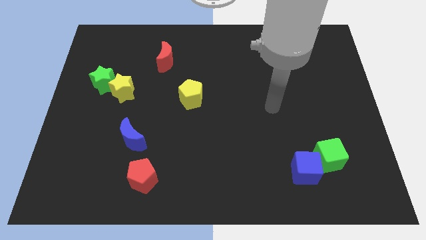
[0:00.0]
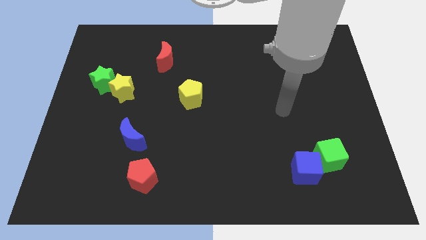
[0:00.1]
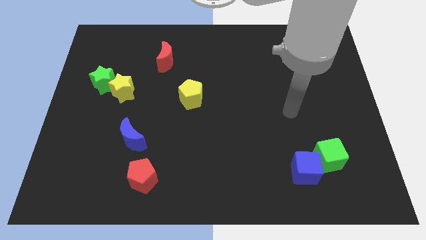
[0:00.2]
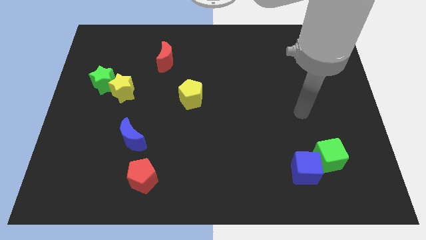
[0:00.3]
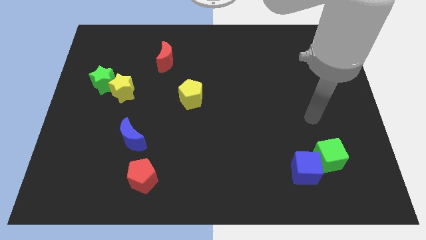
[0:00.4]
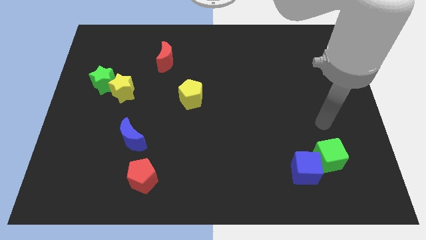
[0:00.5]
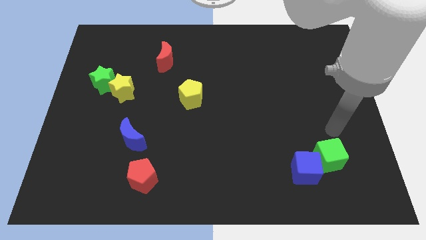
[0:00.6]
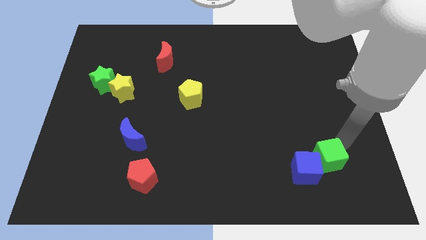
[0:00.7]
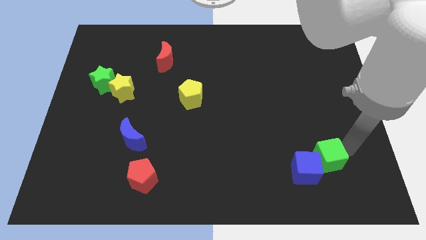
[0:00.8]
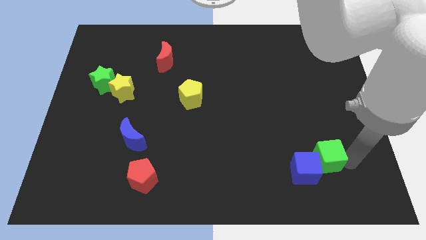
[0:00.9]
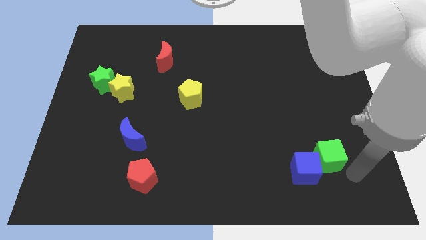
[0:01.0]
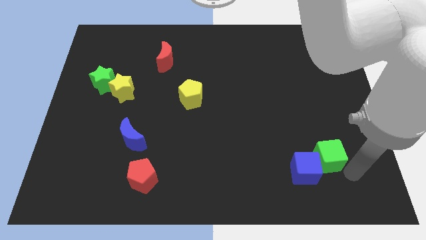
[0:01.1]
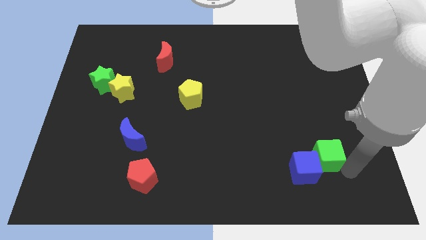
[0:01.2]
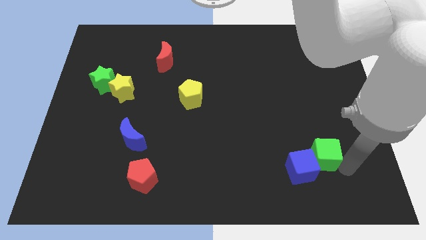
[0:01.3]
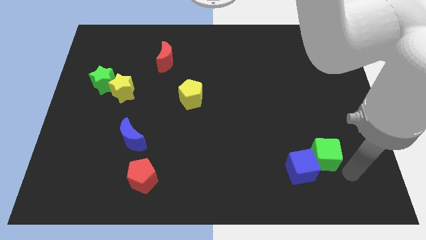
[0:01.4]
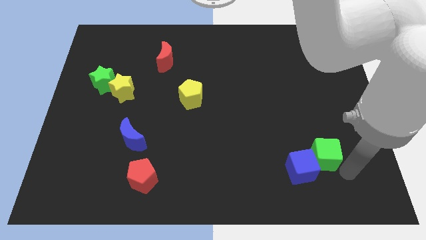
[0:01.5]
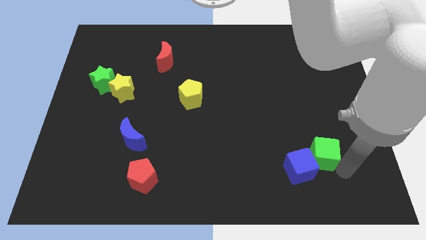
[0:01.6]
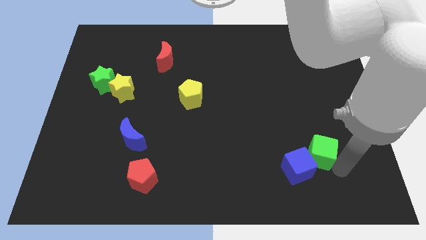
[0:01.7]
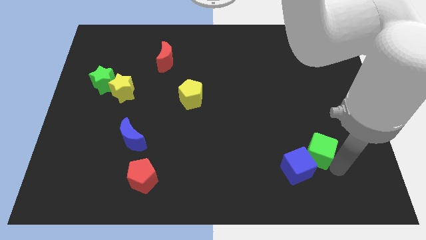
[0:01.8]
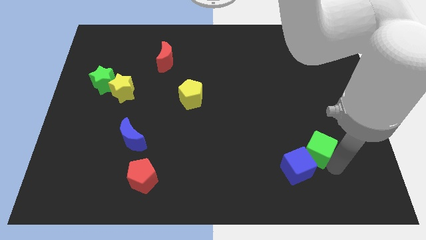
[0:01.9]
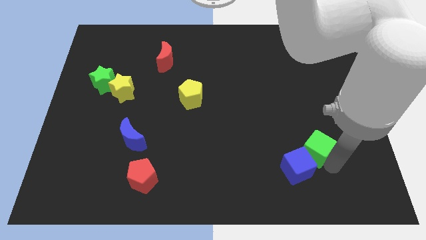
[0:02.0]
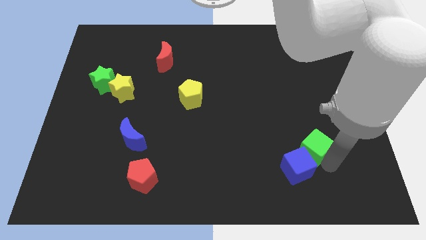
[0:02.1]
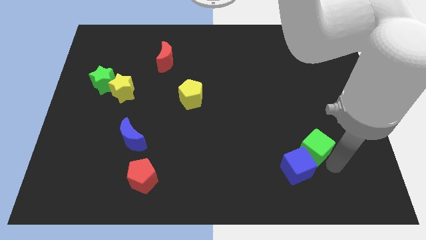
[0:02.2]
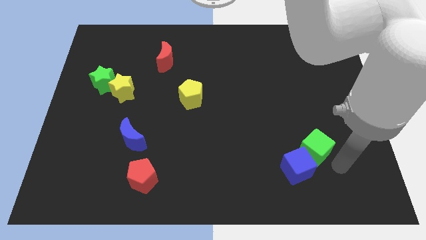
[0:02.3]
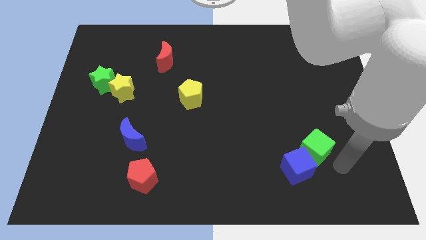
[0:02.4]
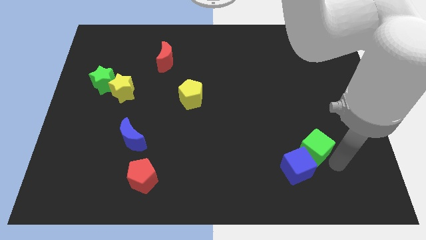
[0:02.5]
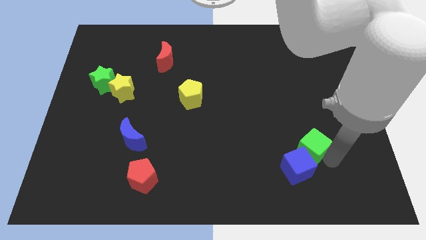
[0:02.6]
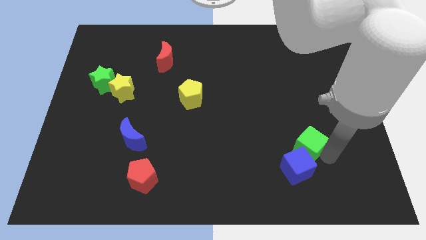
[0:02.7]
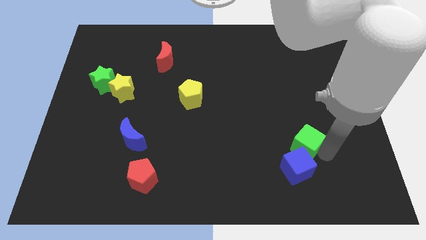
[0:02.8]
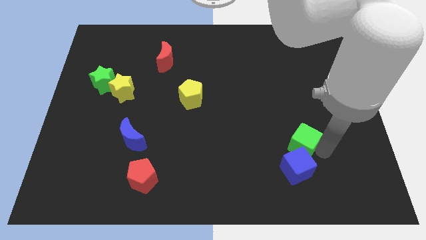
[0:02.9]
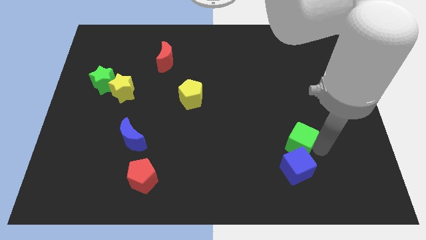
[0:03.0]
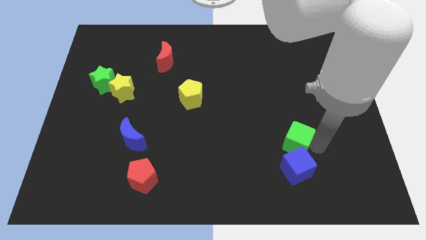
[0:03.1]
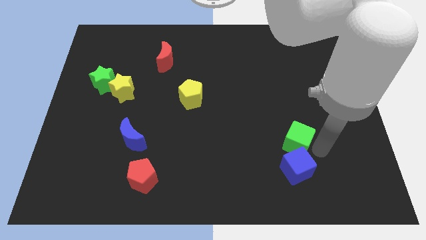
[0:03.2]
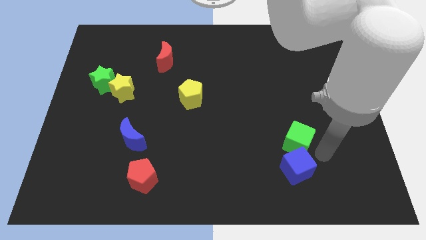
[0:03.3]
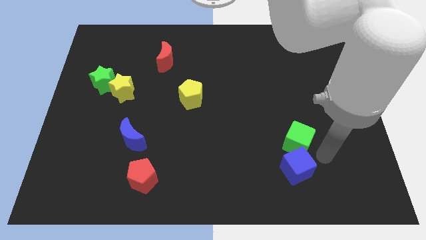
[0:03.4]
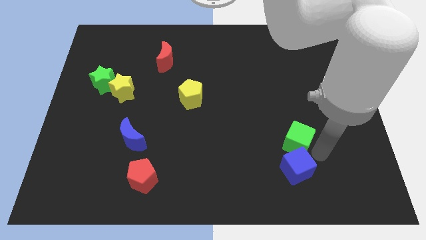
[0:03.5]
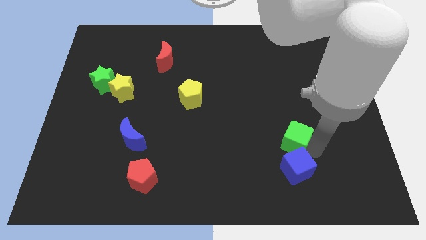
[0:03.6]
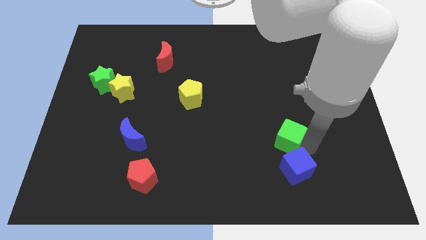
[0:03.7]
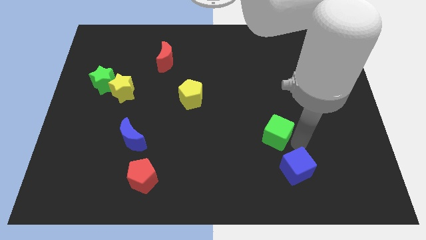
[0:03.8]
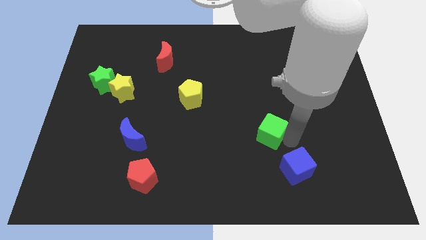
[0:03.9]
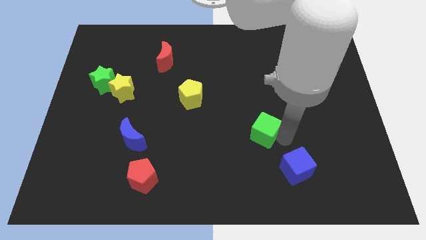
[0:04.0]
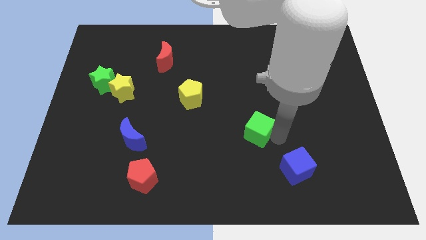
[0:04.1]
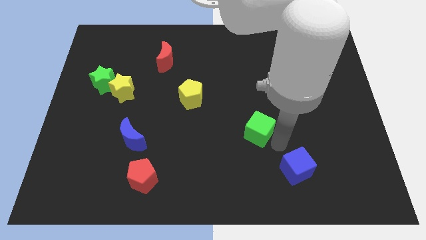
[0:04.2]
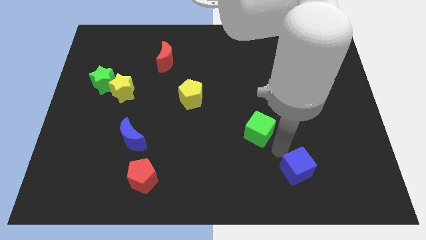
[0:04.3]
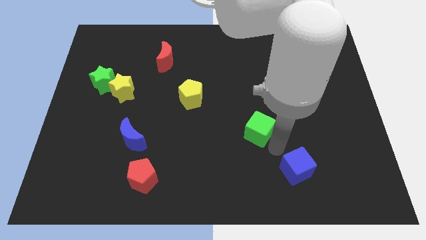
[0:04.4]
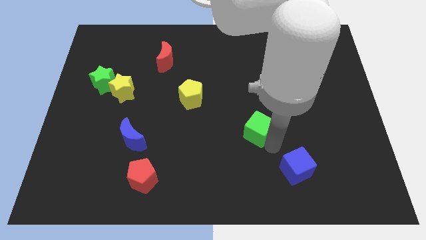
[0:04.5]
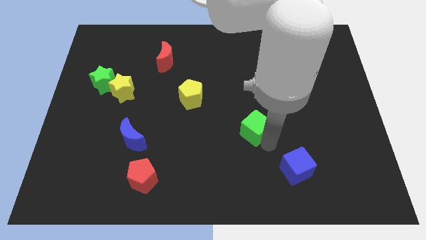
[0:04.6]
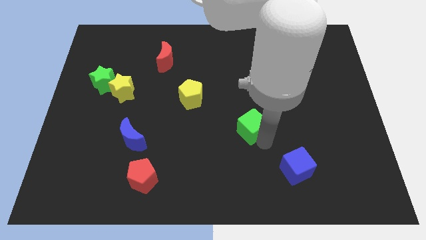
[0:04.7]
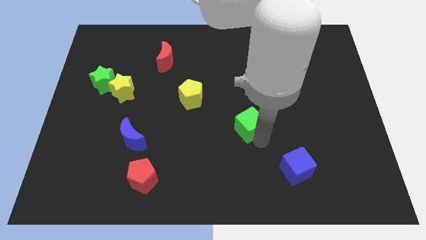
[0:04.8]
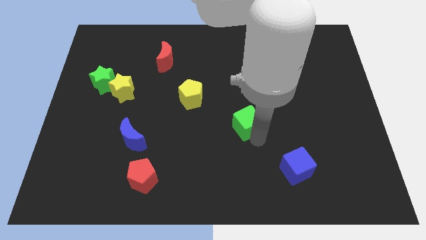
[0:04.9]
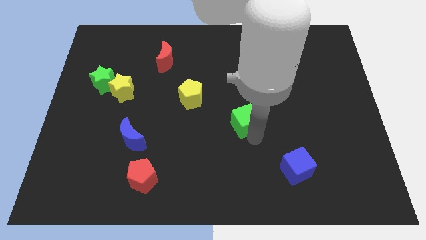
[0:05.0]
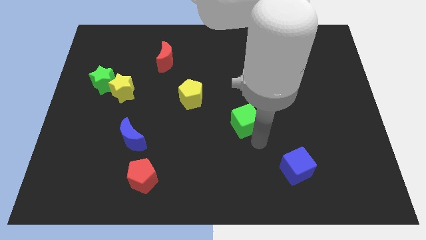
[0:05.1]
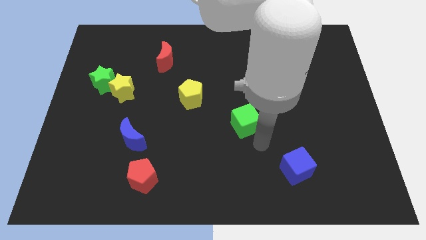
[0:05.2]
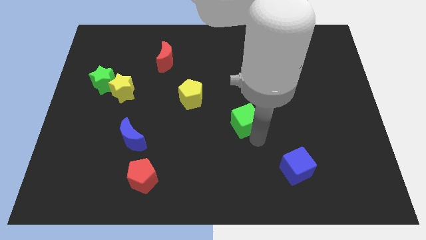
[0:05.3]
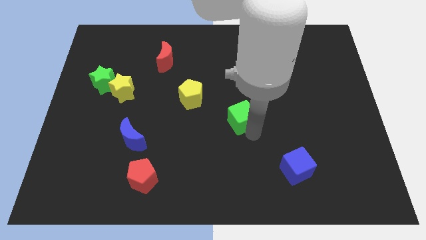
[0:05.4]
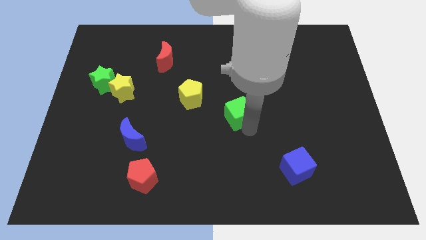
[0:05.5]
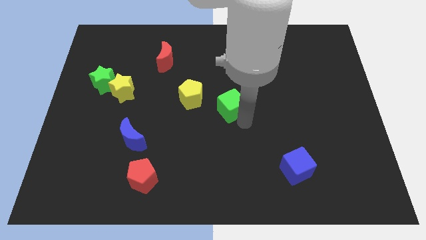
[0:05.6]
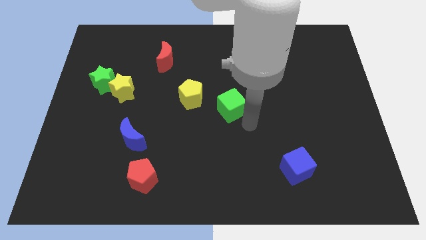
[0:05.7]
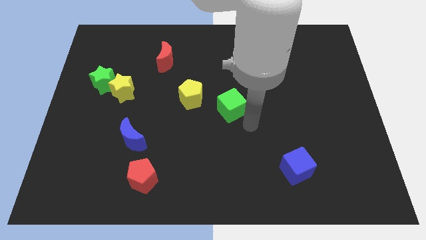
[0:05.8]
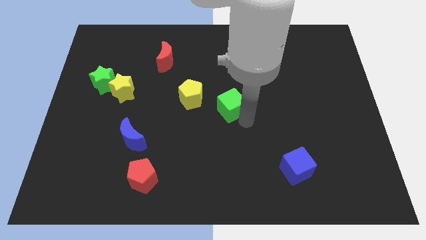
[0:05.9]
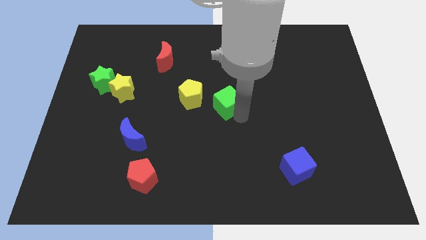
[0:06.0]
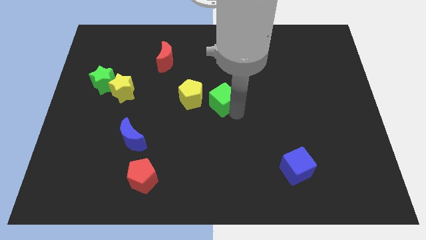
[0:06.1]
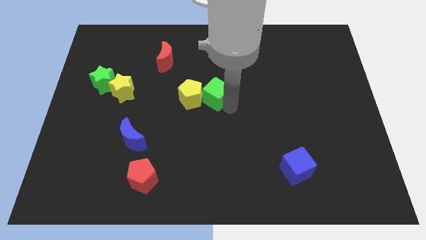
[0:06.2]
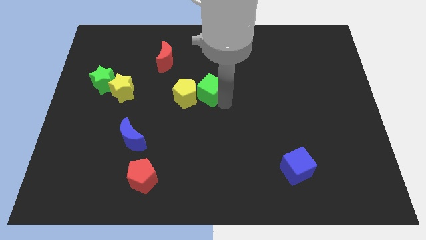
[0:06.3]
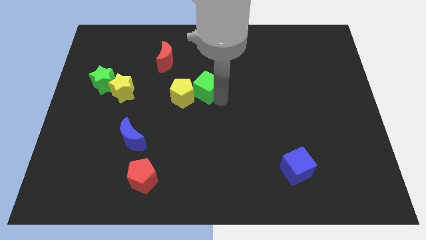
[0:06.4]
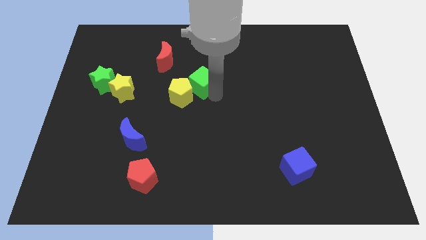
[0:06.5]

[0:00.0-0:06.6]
slide the green cube to the bottom right of the red moon
